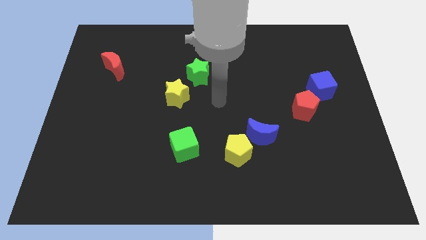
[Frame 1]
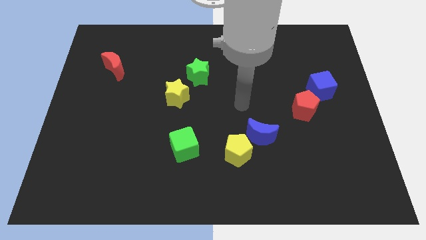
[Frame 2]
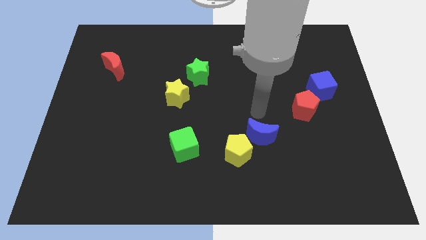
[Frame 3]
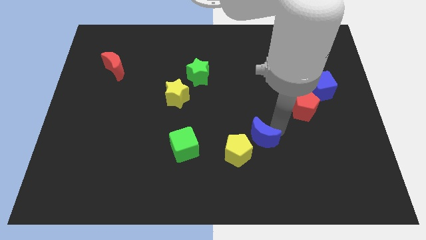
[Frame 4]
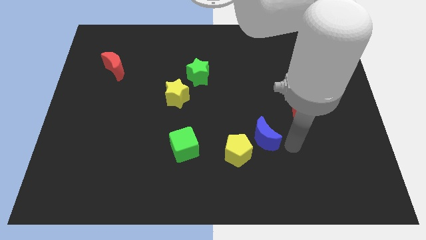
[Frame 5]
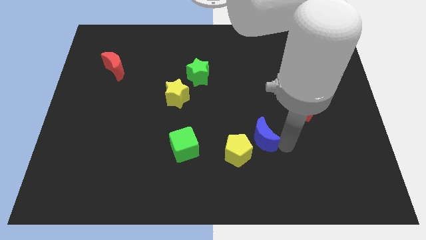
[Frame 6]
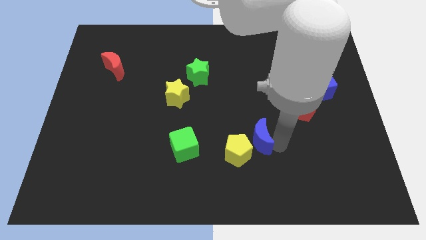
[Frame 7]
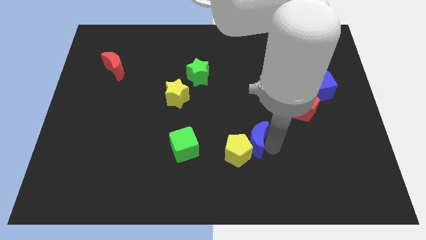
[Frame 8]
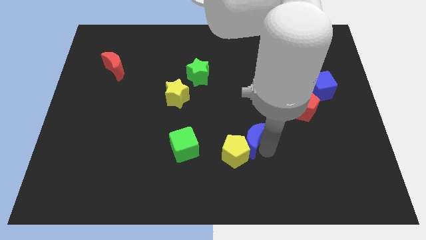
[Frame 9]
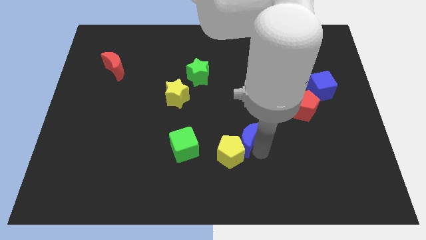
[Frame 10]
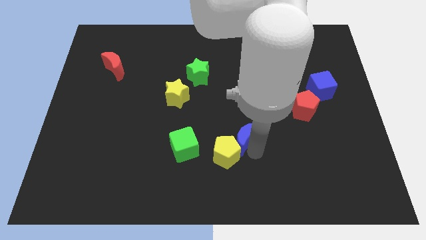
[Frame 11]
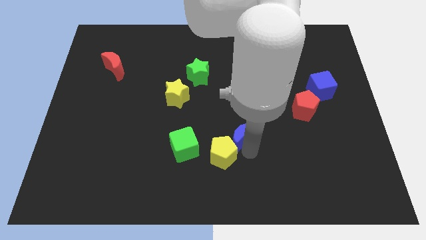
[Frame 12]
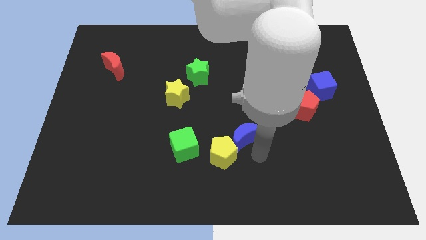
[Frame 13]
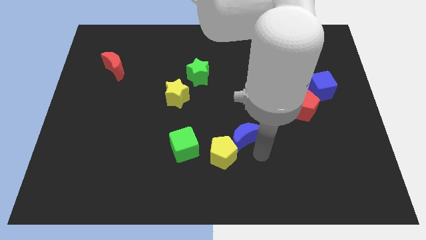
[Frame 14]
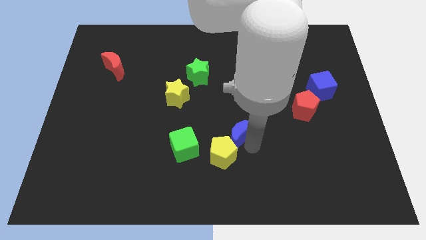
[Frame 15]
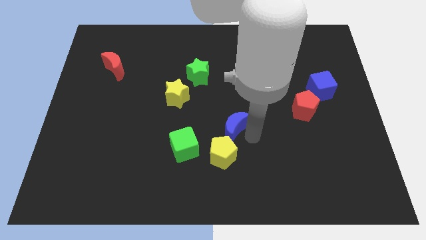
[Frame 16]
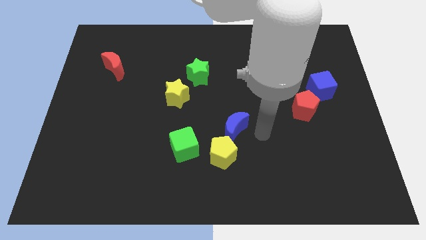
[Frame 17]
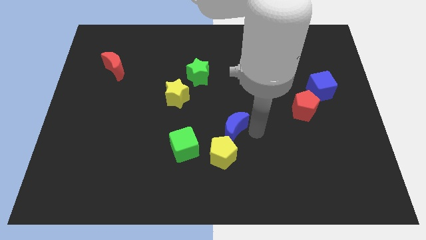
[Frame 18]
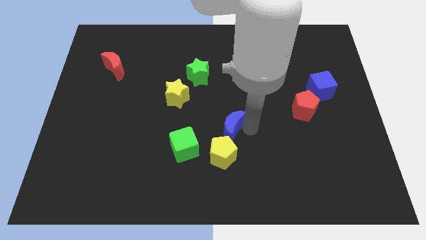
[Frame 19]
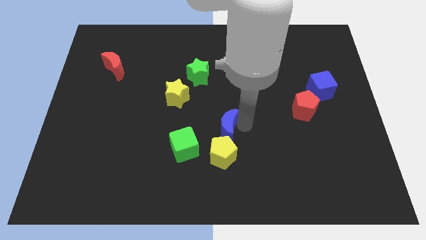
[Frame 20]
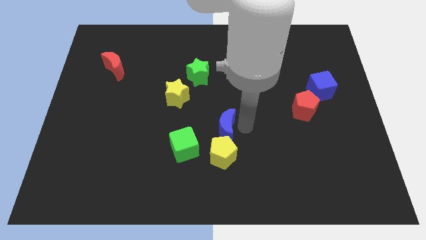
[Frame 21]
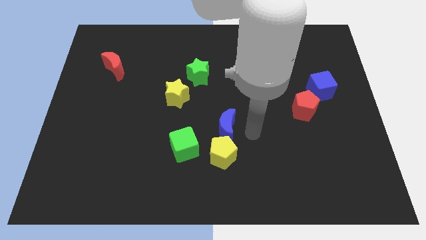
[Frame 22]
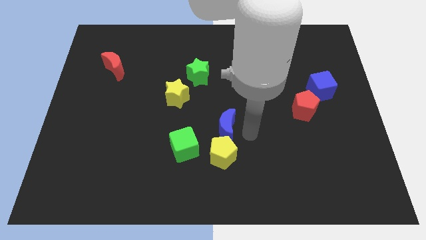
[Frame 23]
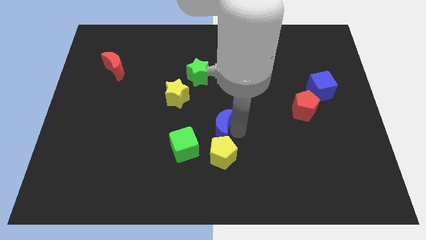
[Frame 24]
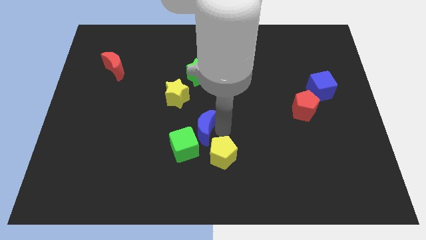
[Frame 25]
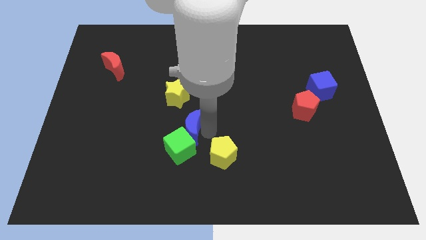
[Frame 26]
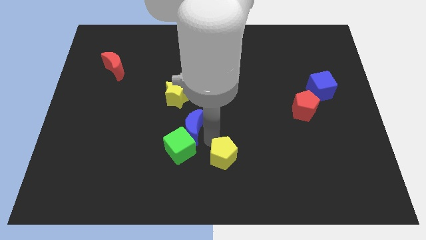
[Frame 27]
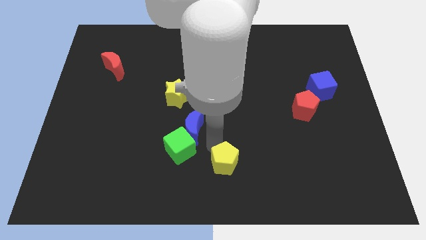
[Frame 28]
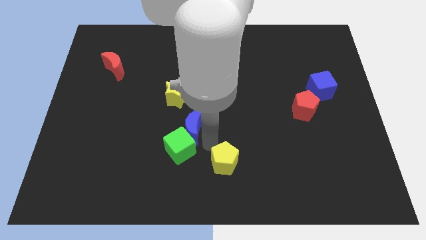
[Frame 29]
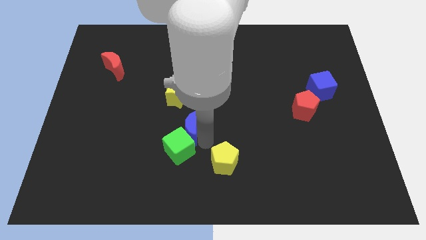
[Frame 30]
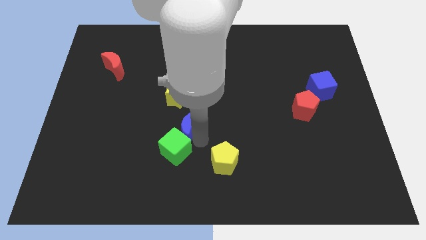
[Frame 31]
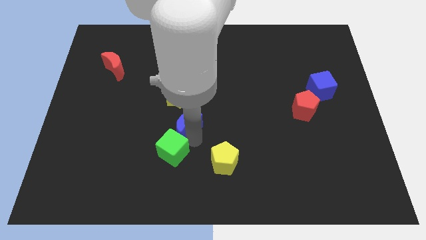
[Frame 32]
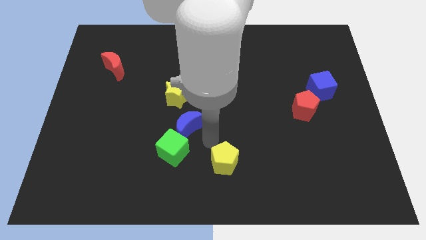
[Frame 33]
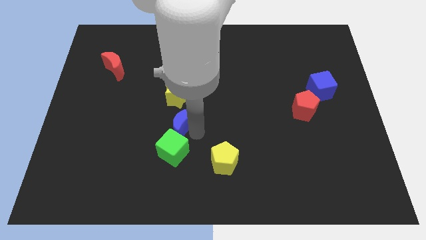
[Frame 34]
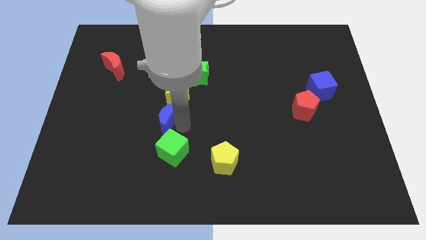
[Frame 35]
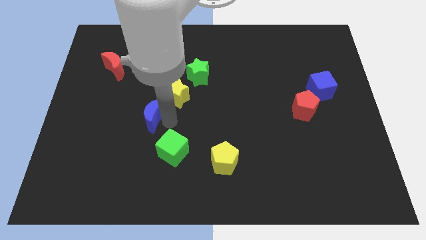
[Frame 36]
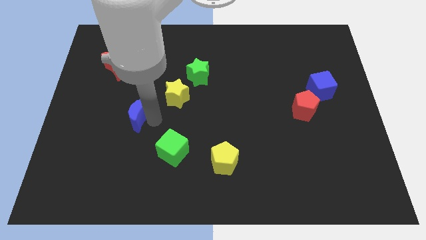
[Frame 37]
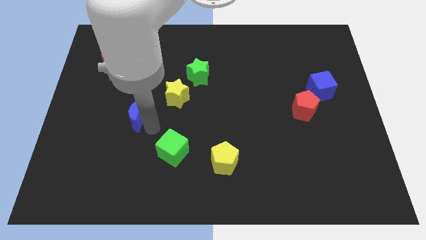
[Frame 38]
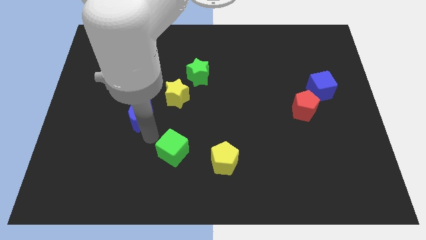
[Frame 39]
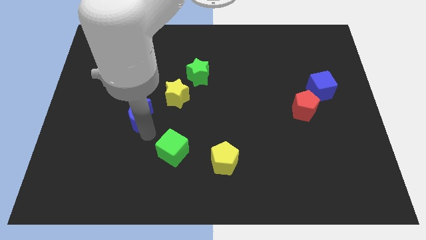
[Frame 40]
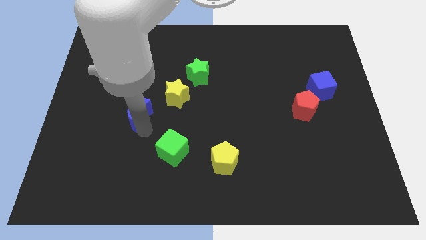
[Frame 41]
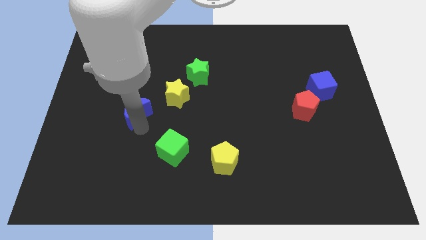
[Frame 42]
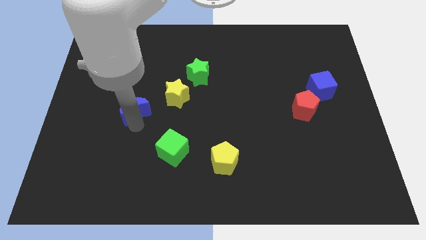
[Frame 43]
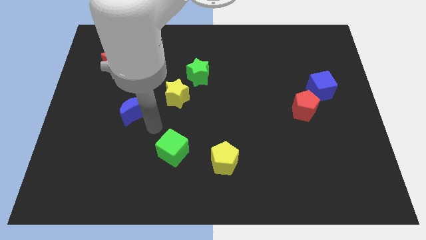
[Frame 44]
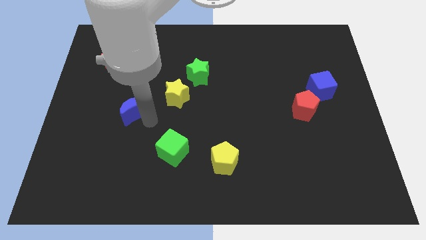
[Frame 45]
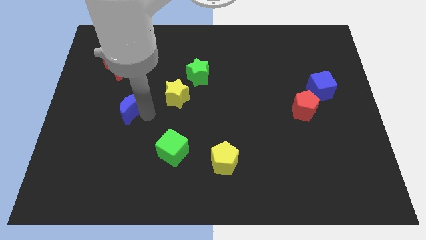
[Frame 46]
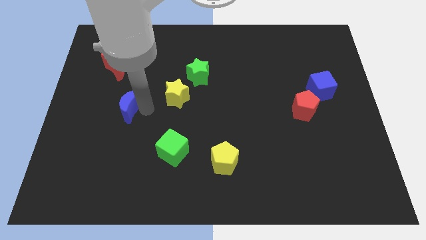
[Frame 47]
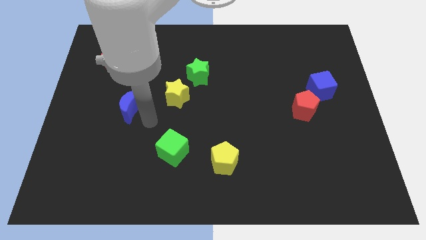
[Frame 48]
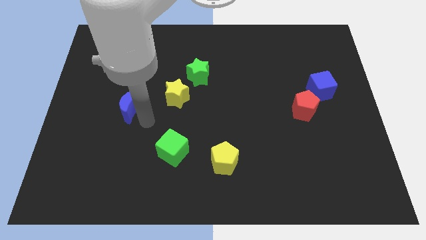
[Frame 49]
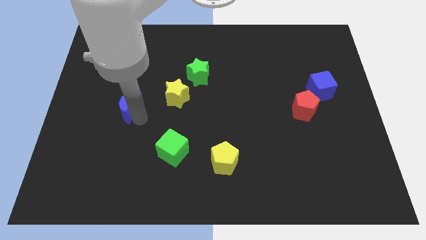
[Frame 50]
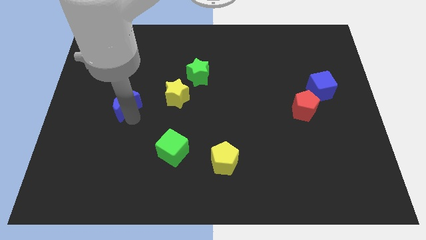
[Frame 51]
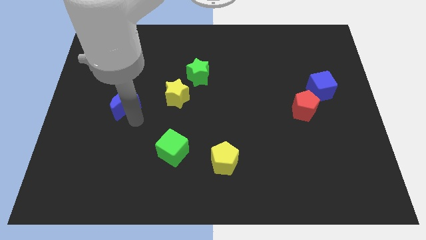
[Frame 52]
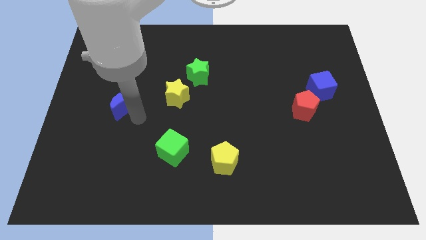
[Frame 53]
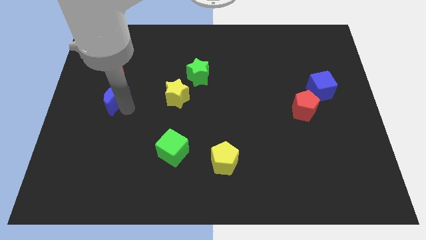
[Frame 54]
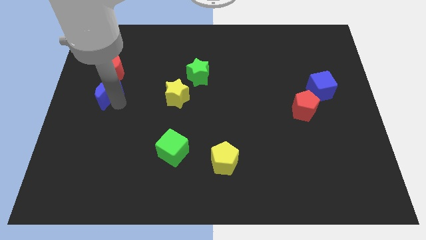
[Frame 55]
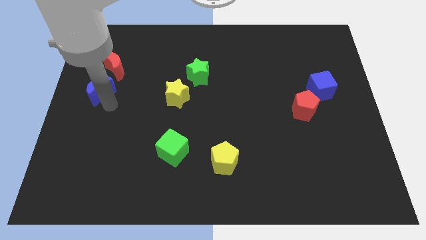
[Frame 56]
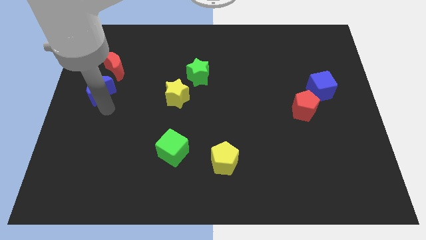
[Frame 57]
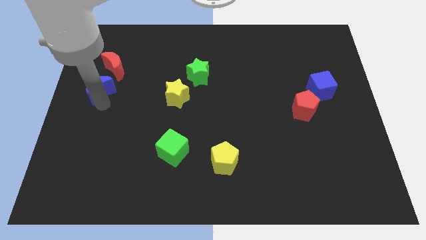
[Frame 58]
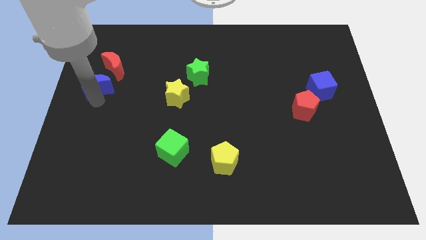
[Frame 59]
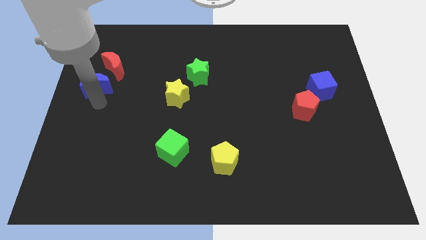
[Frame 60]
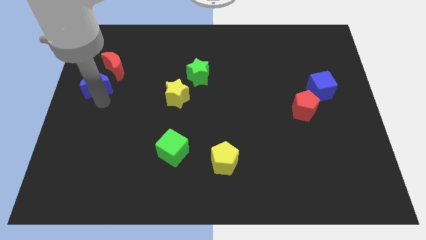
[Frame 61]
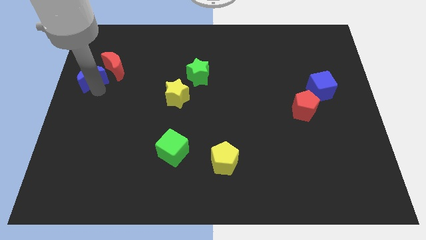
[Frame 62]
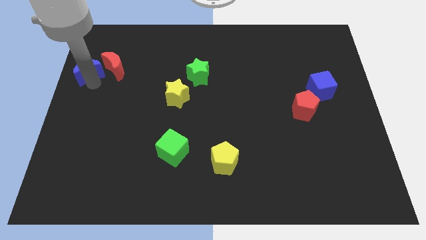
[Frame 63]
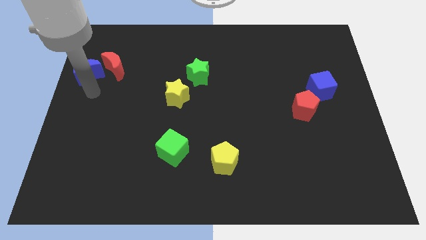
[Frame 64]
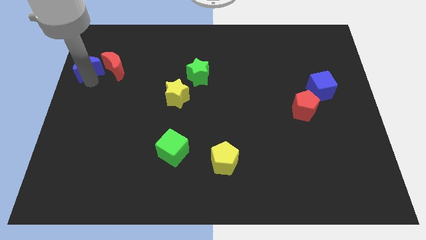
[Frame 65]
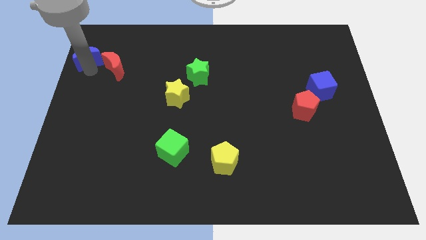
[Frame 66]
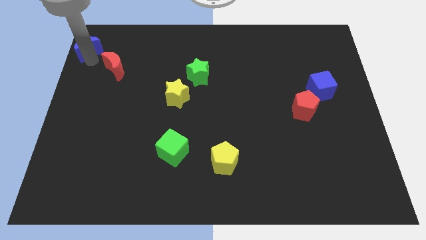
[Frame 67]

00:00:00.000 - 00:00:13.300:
put the blue moon to the top left
